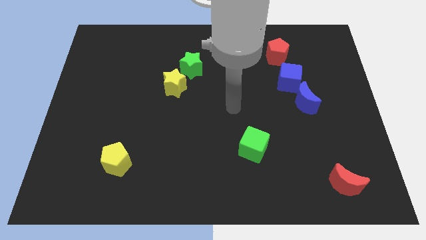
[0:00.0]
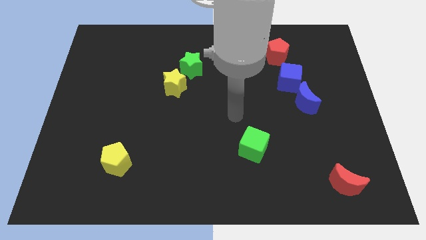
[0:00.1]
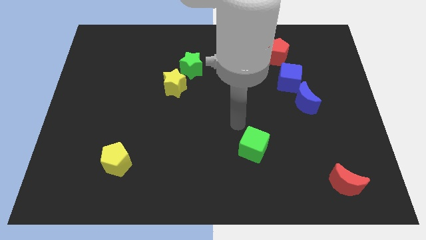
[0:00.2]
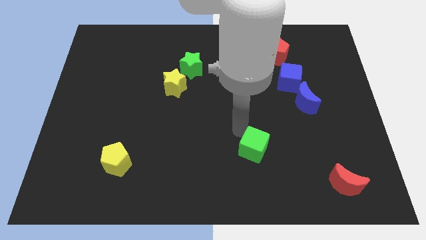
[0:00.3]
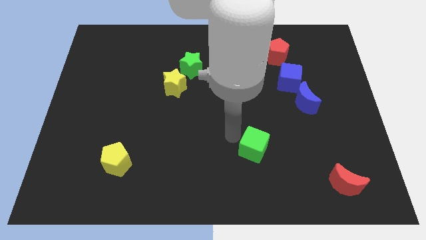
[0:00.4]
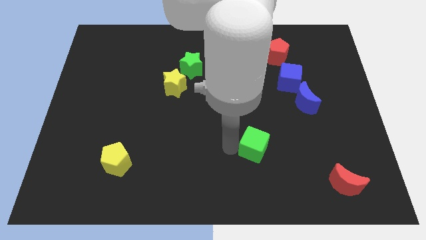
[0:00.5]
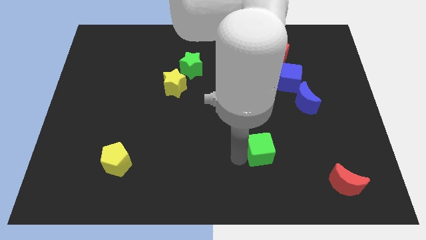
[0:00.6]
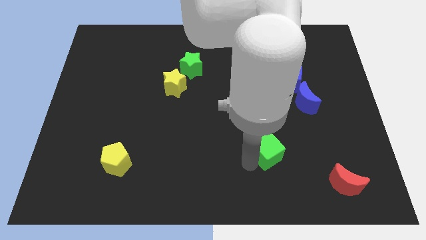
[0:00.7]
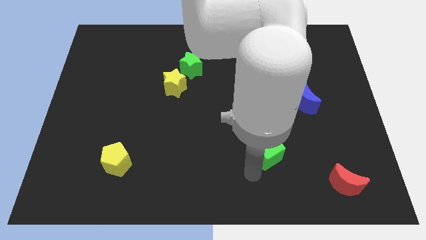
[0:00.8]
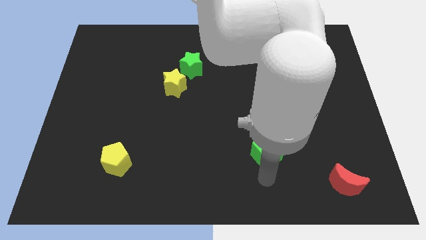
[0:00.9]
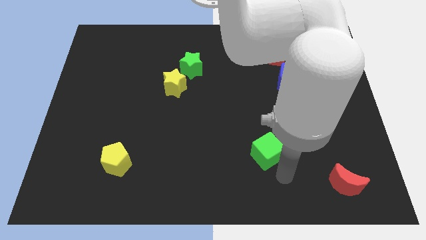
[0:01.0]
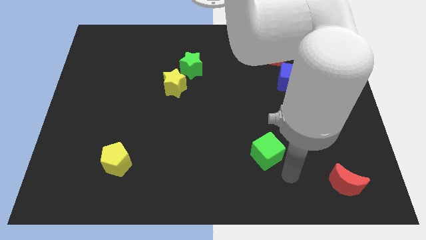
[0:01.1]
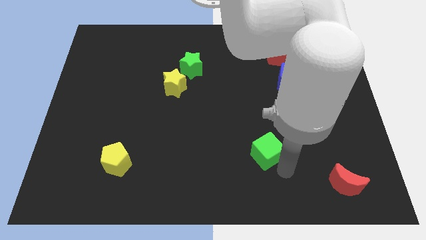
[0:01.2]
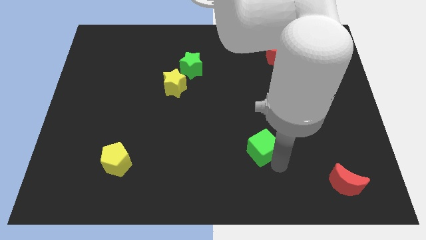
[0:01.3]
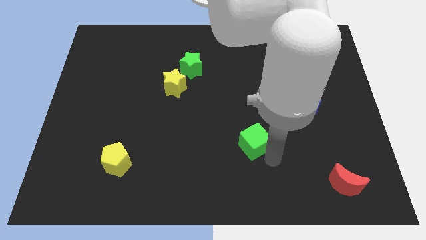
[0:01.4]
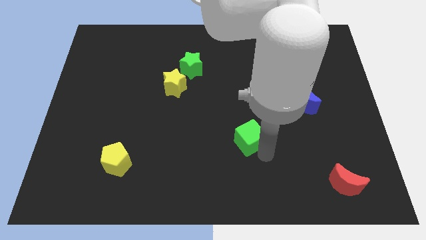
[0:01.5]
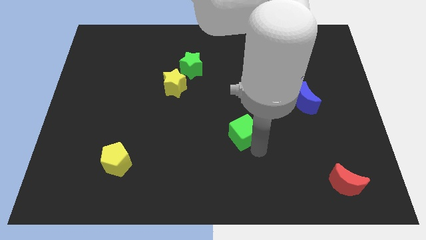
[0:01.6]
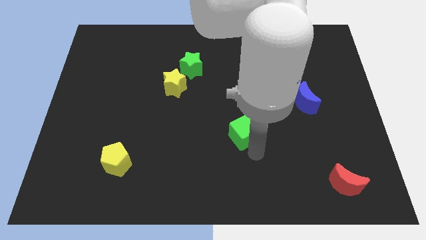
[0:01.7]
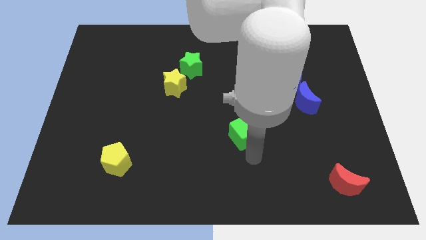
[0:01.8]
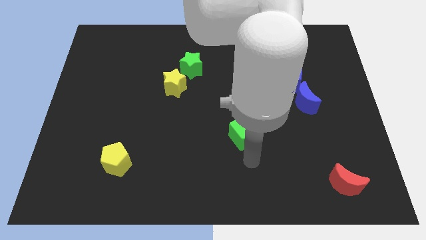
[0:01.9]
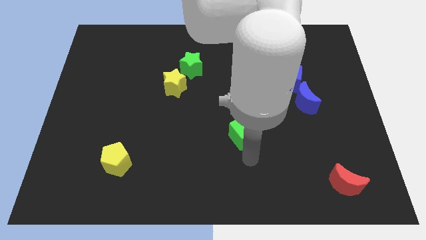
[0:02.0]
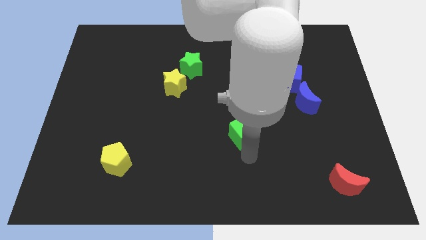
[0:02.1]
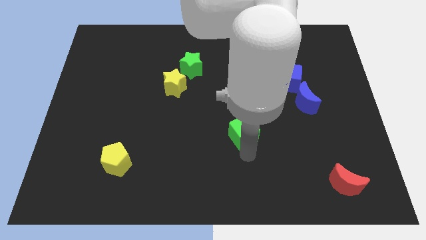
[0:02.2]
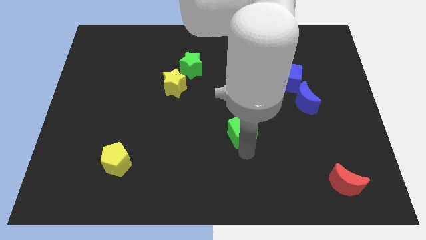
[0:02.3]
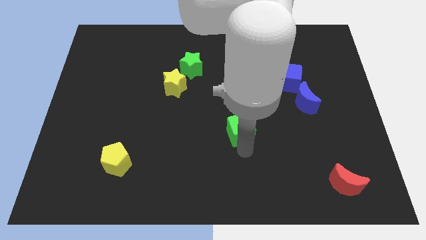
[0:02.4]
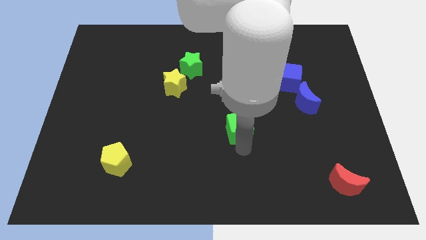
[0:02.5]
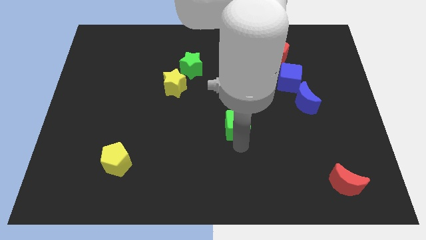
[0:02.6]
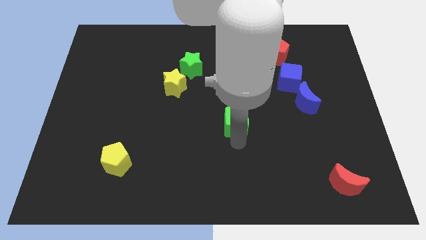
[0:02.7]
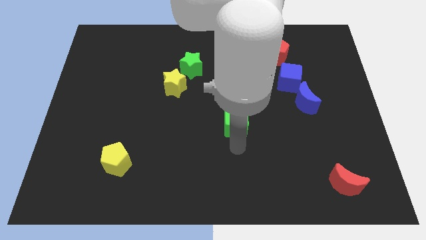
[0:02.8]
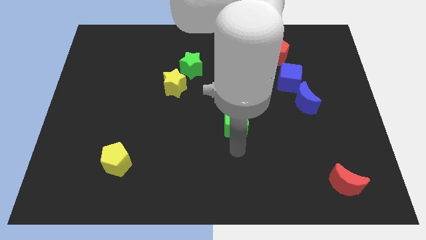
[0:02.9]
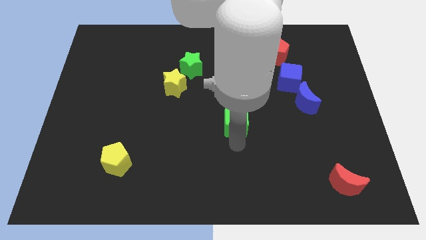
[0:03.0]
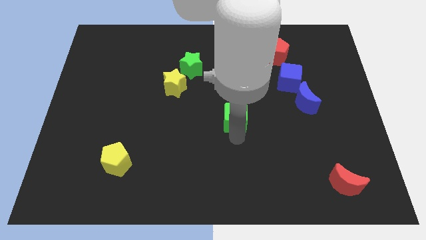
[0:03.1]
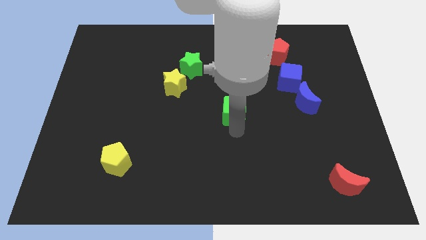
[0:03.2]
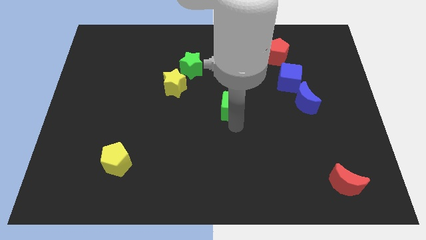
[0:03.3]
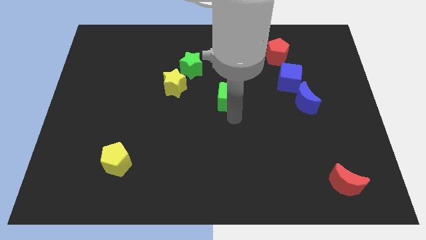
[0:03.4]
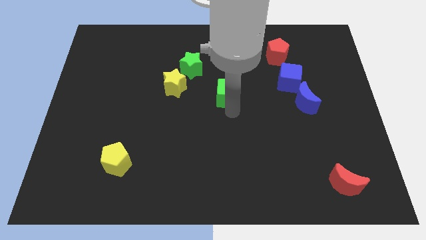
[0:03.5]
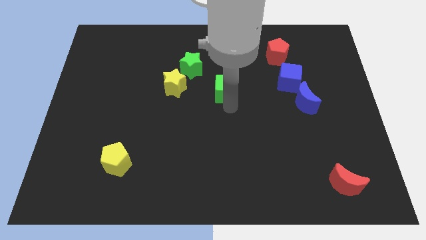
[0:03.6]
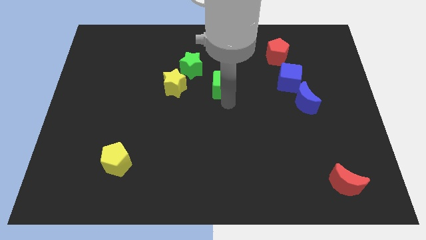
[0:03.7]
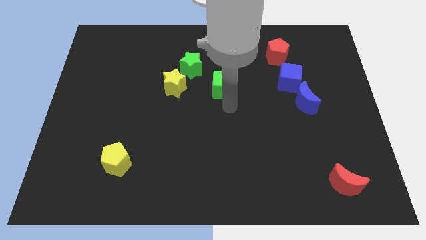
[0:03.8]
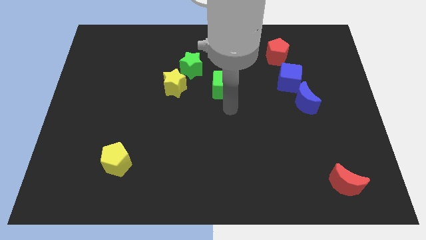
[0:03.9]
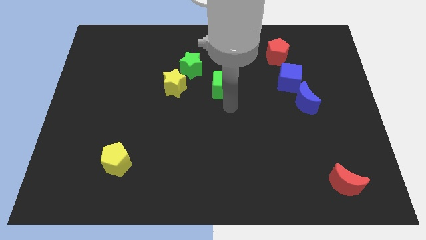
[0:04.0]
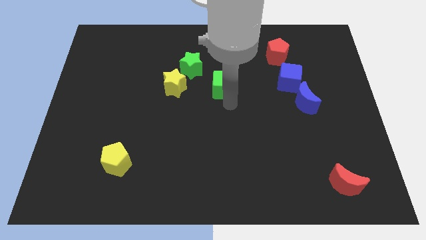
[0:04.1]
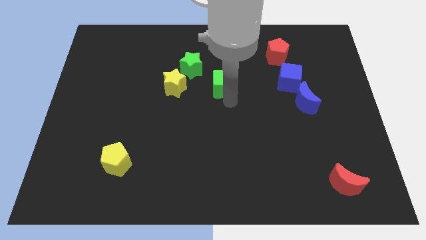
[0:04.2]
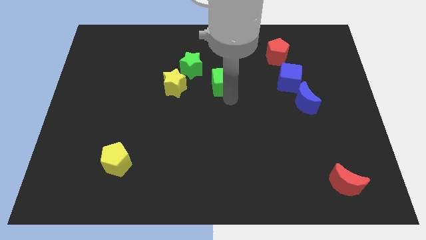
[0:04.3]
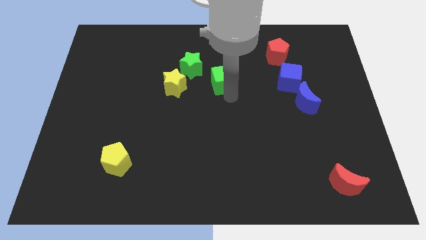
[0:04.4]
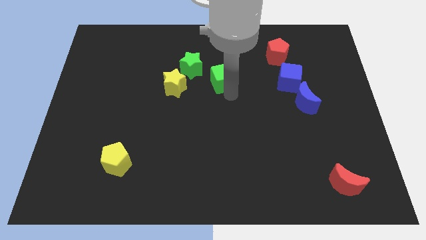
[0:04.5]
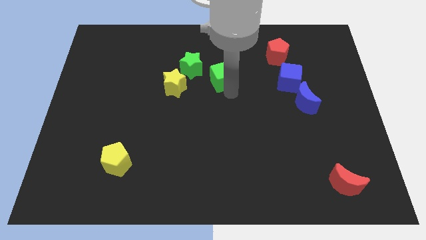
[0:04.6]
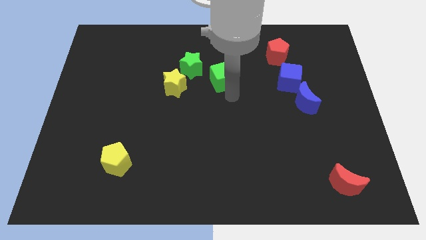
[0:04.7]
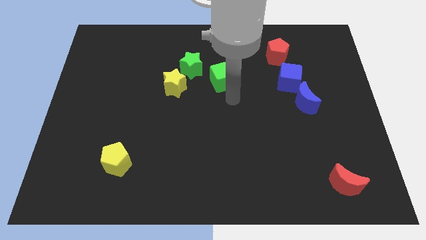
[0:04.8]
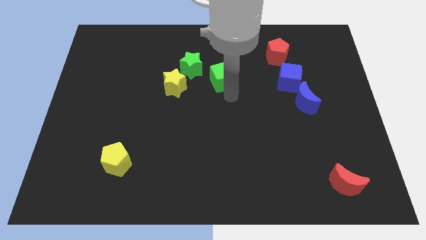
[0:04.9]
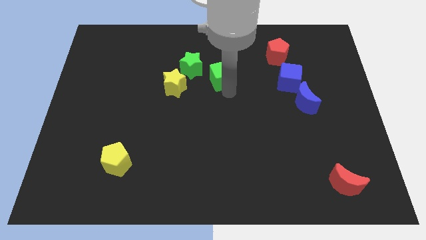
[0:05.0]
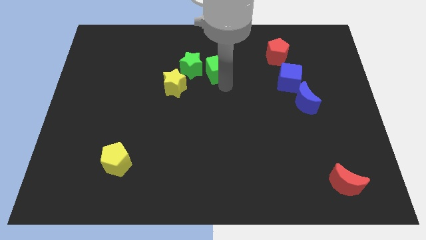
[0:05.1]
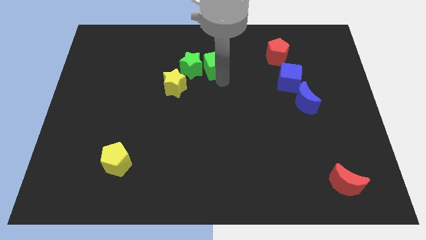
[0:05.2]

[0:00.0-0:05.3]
slide the green cube to the top right of the green star

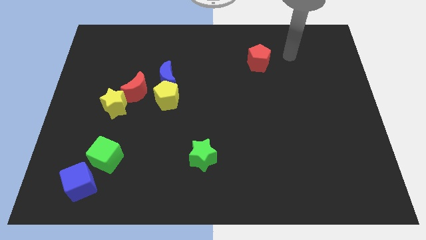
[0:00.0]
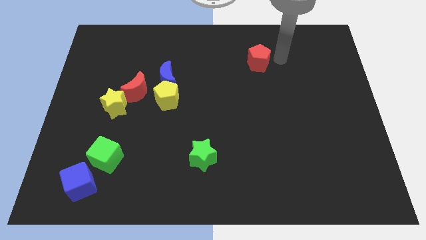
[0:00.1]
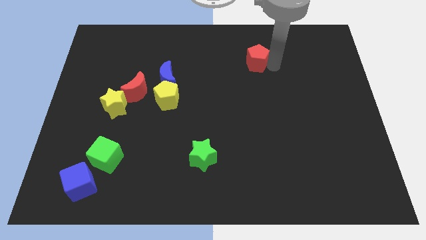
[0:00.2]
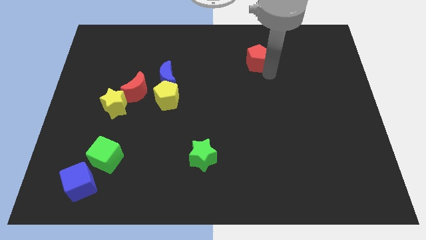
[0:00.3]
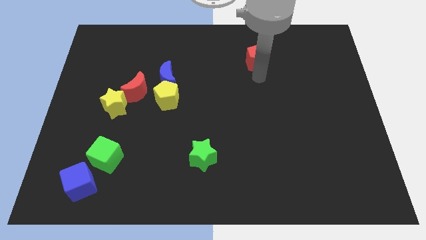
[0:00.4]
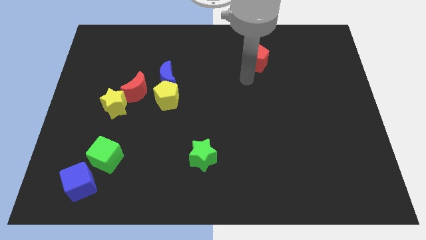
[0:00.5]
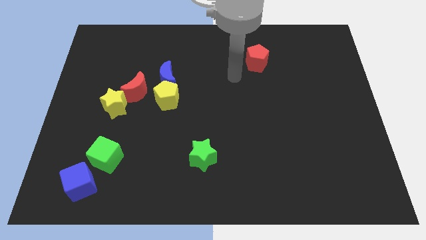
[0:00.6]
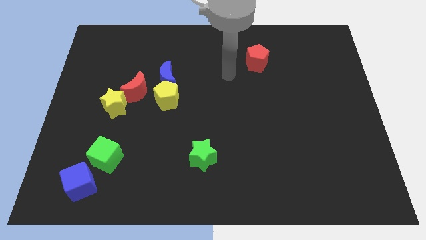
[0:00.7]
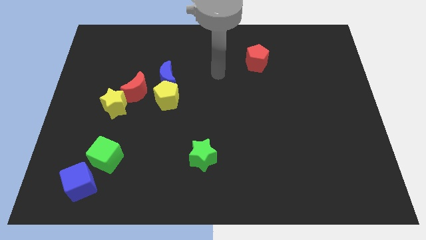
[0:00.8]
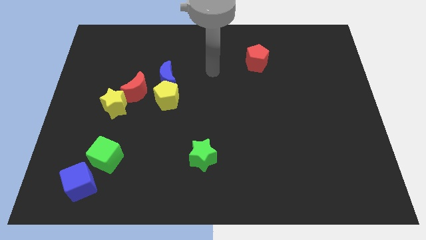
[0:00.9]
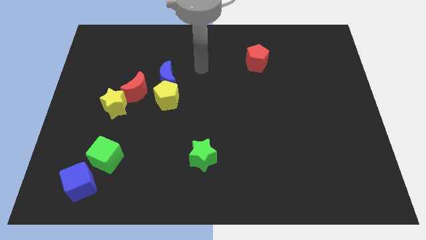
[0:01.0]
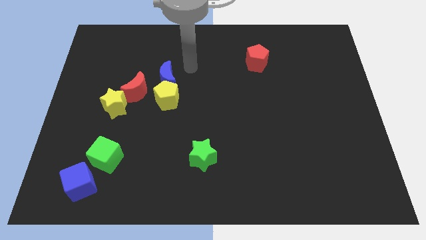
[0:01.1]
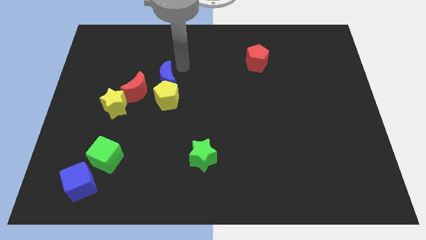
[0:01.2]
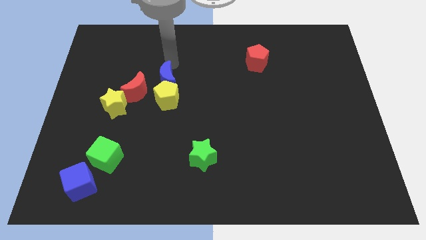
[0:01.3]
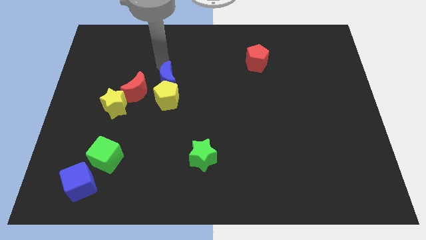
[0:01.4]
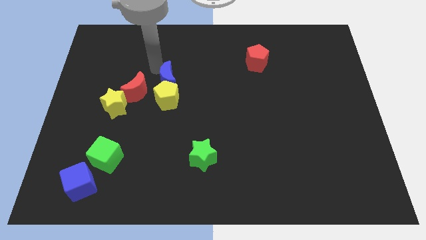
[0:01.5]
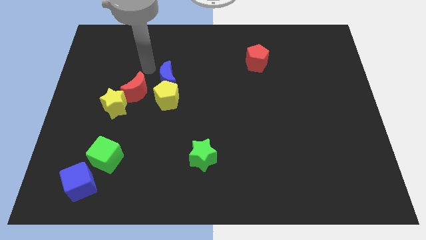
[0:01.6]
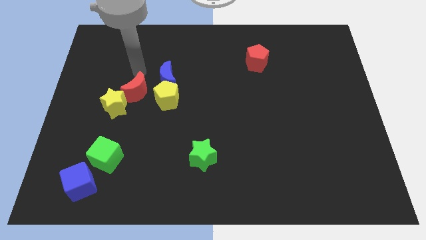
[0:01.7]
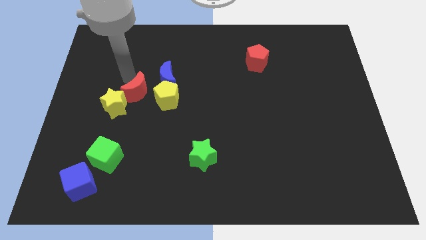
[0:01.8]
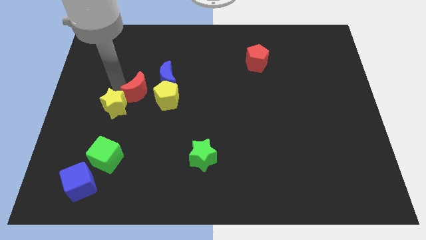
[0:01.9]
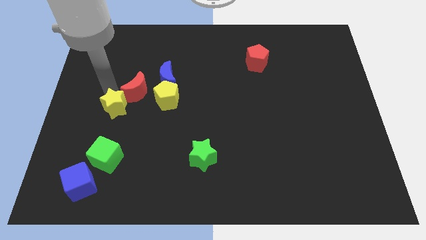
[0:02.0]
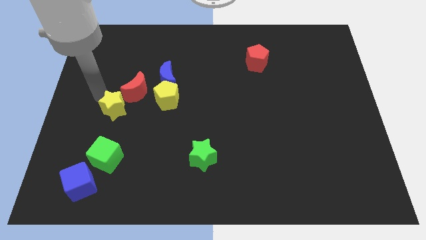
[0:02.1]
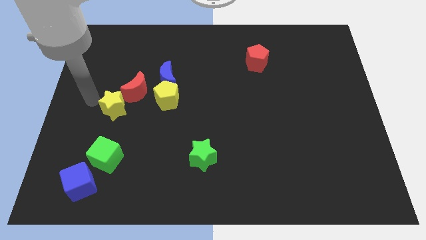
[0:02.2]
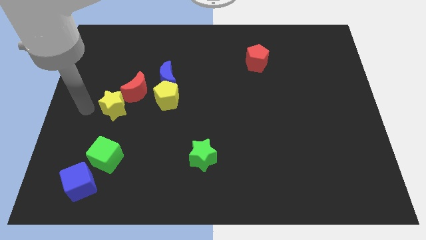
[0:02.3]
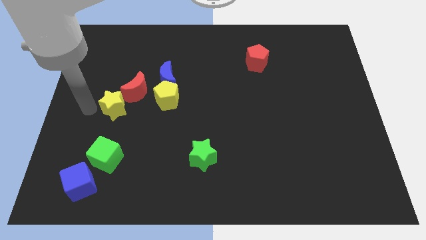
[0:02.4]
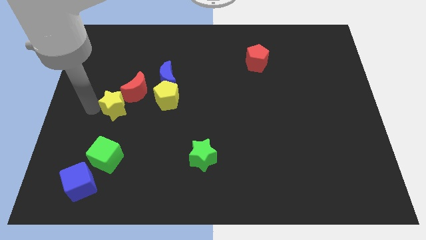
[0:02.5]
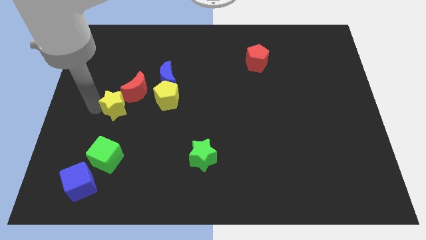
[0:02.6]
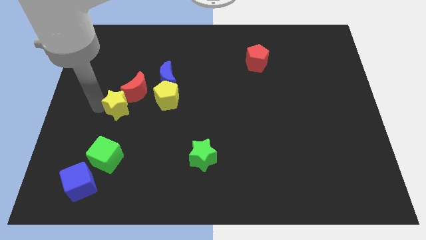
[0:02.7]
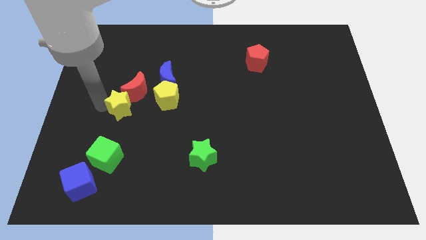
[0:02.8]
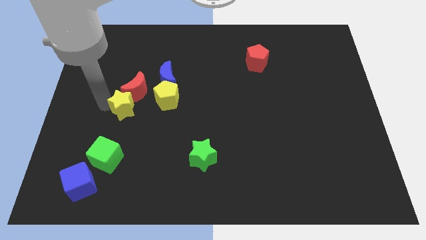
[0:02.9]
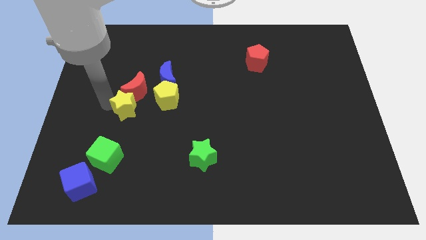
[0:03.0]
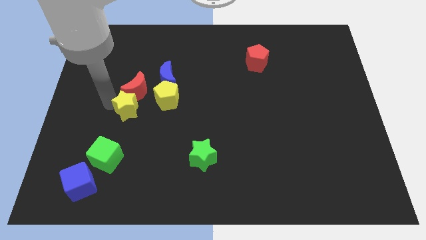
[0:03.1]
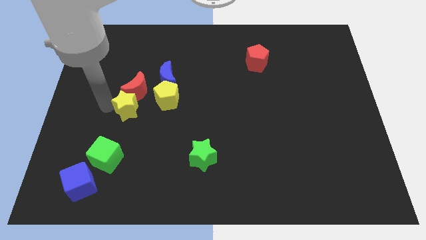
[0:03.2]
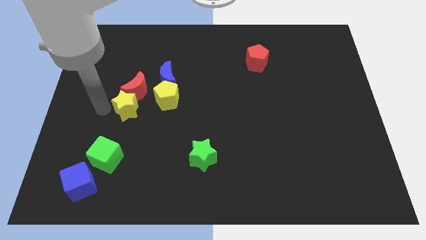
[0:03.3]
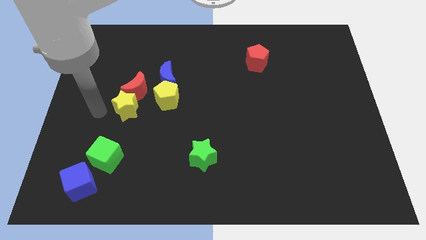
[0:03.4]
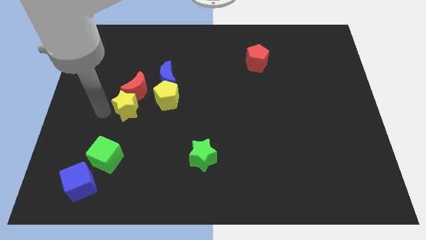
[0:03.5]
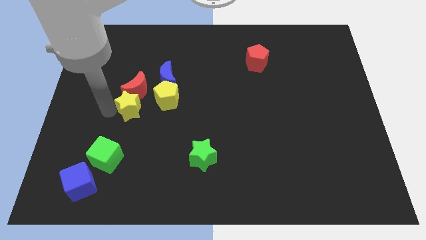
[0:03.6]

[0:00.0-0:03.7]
move the yellow star to the bottom right of the red moon
